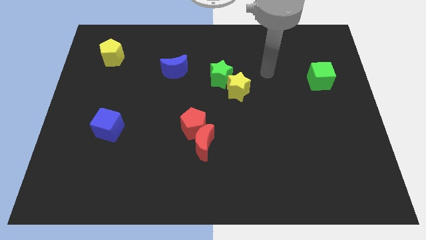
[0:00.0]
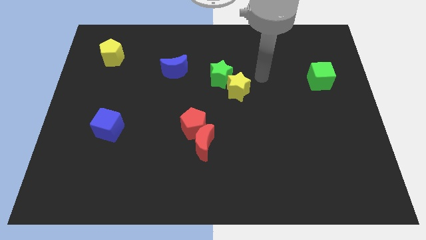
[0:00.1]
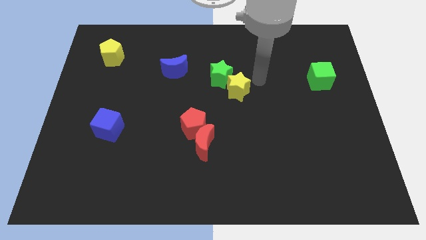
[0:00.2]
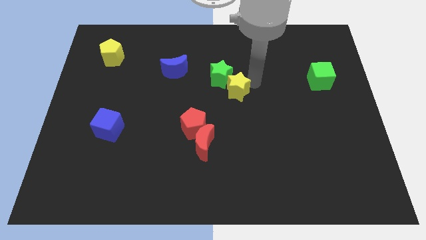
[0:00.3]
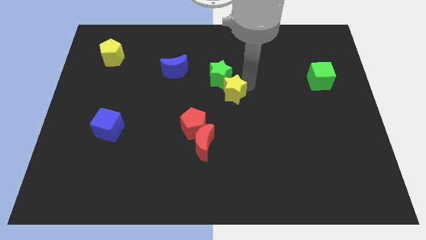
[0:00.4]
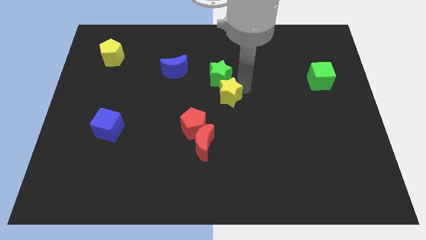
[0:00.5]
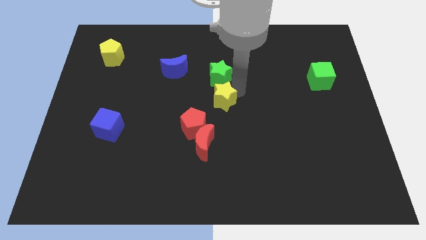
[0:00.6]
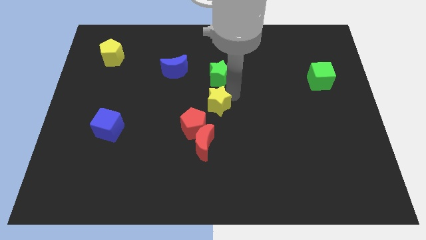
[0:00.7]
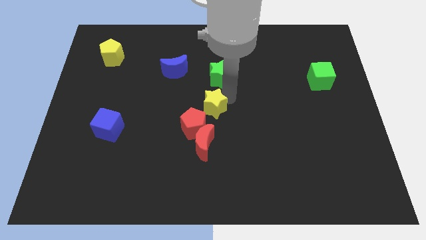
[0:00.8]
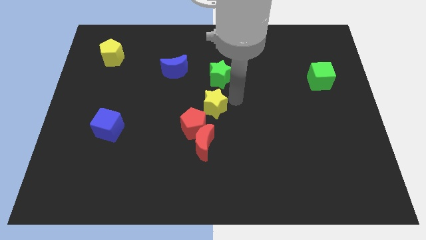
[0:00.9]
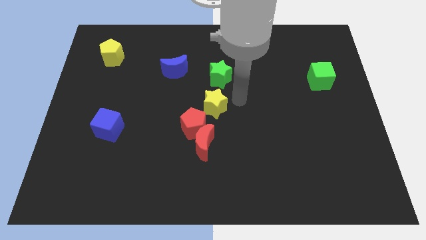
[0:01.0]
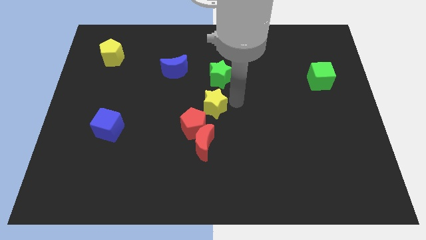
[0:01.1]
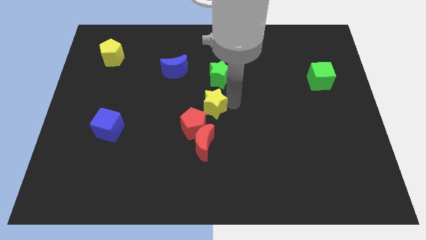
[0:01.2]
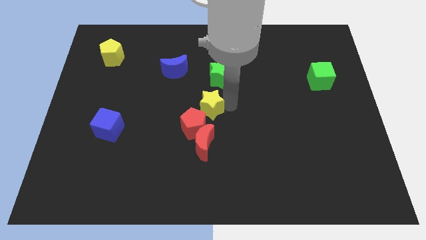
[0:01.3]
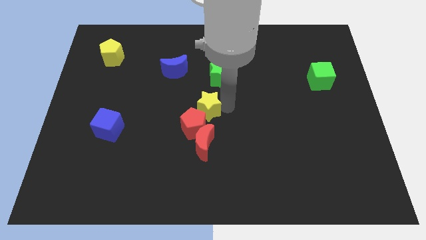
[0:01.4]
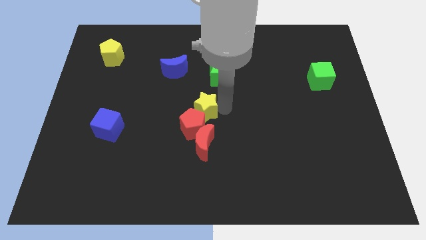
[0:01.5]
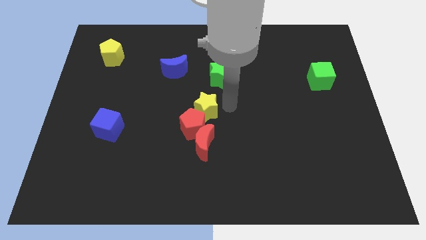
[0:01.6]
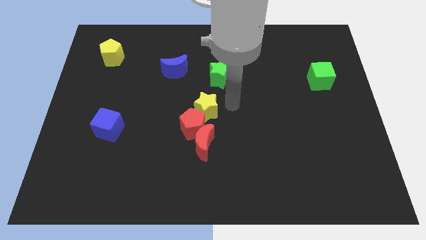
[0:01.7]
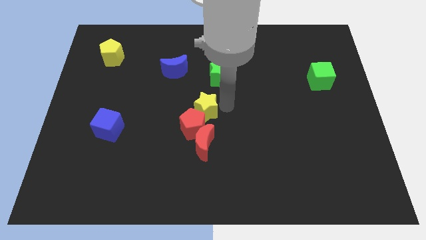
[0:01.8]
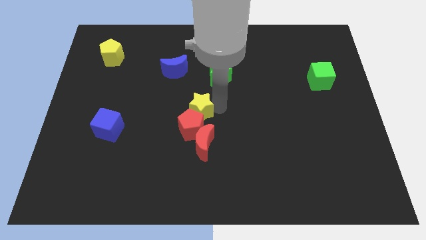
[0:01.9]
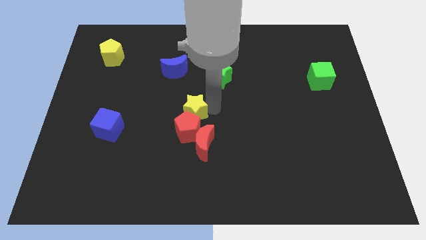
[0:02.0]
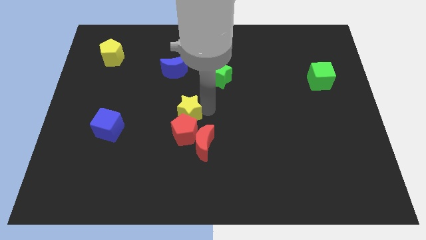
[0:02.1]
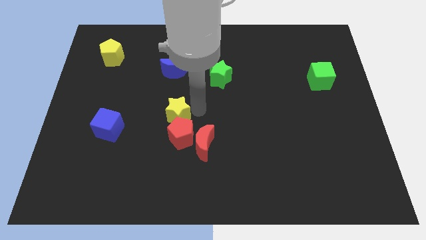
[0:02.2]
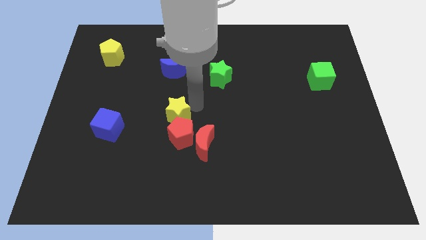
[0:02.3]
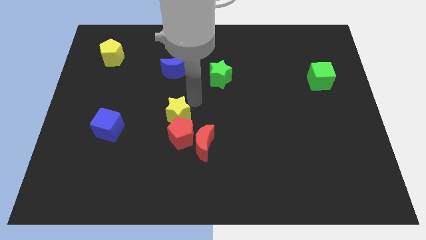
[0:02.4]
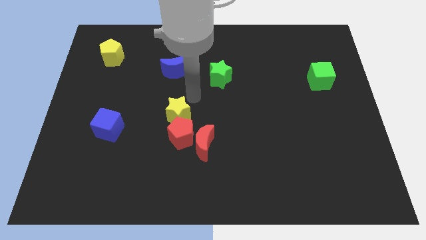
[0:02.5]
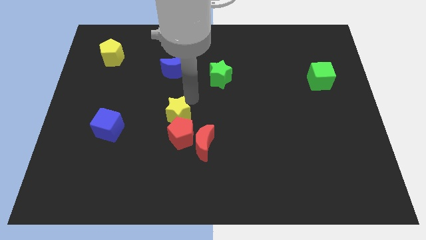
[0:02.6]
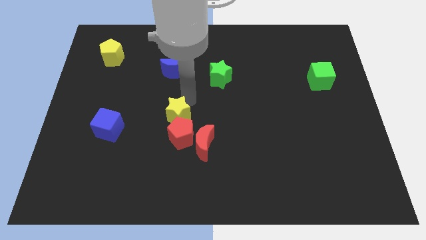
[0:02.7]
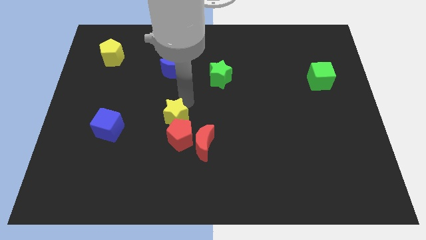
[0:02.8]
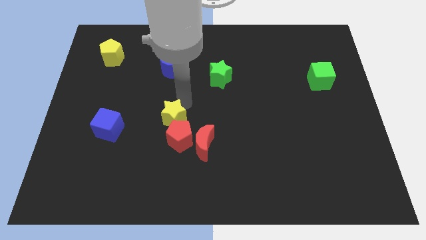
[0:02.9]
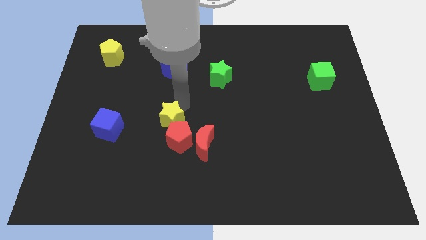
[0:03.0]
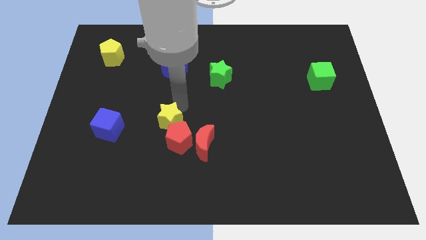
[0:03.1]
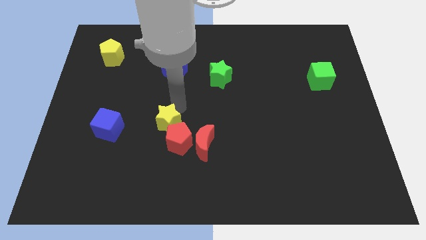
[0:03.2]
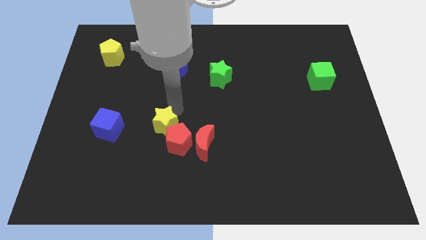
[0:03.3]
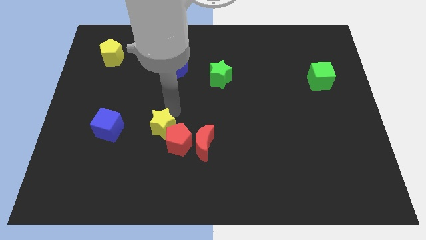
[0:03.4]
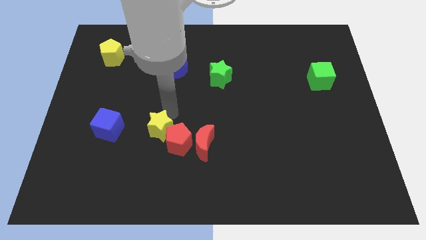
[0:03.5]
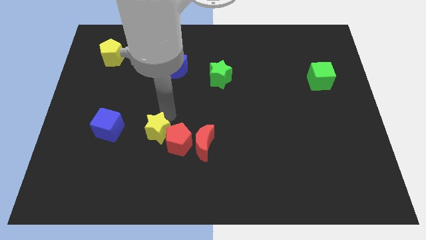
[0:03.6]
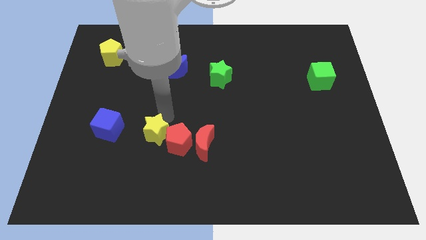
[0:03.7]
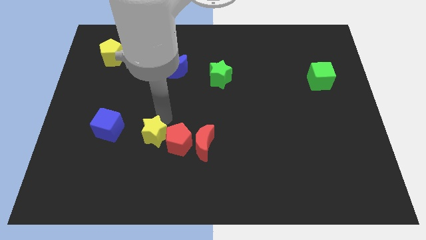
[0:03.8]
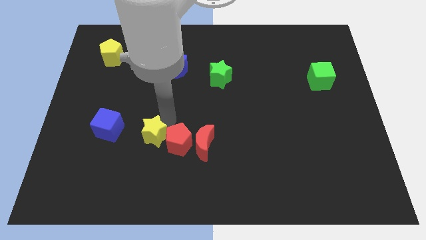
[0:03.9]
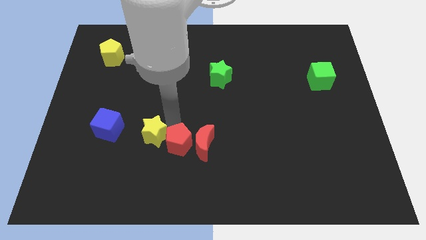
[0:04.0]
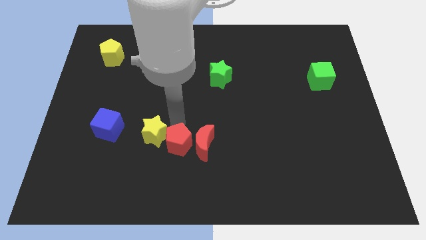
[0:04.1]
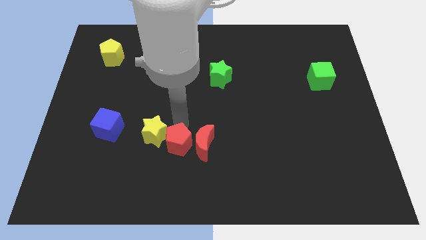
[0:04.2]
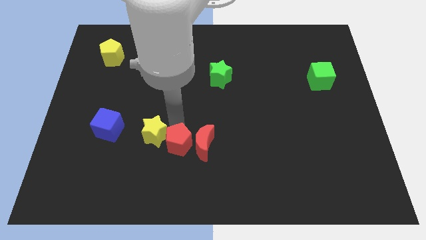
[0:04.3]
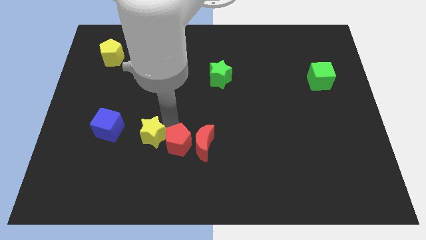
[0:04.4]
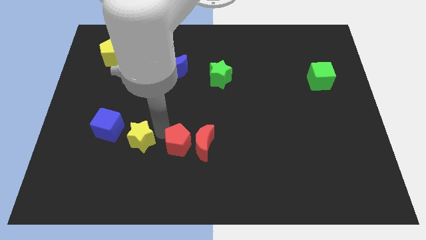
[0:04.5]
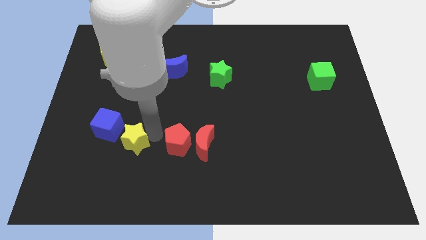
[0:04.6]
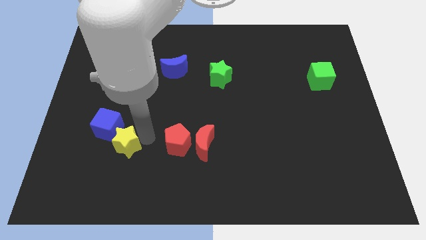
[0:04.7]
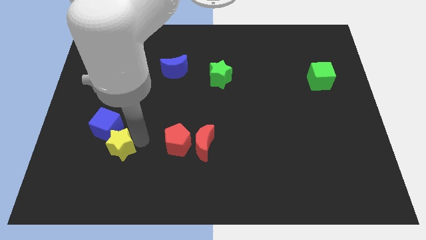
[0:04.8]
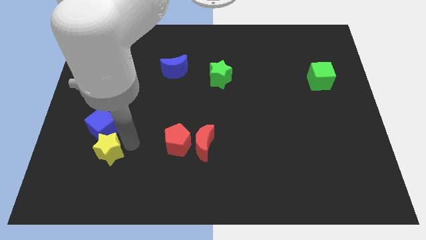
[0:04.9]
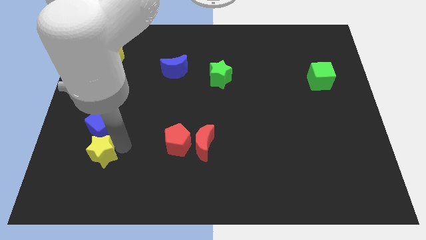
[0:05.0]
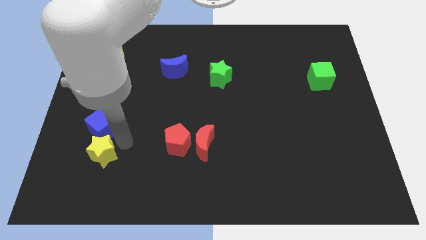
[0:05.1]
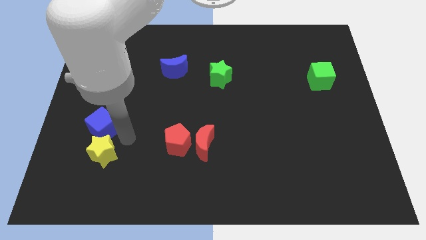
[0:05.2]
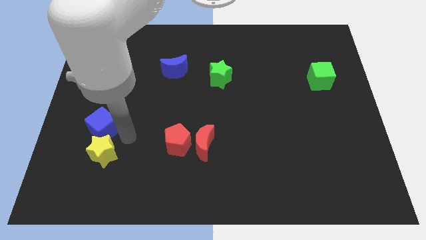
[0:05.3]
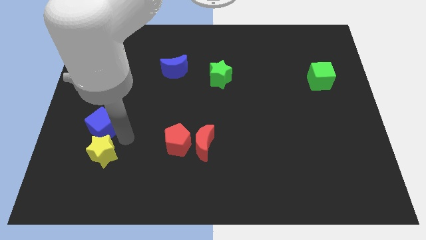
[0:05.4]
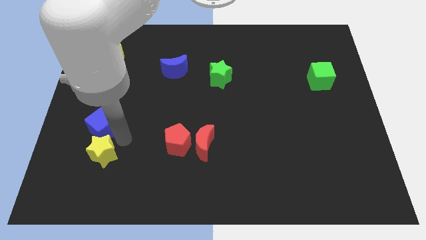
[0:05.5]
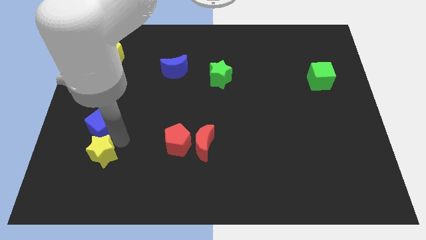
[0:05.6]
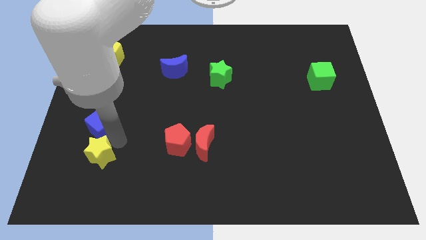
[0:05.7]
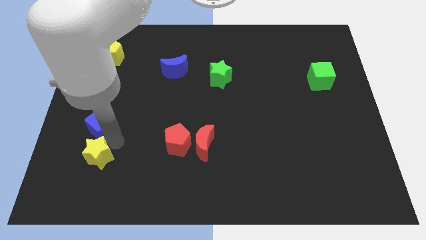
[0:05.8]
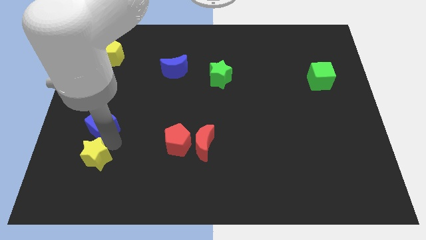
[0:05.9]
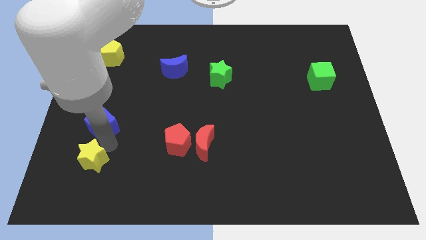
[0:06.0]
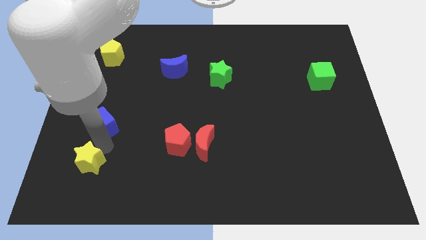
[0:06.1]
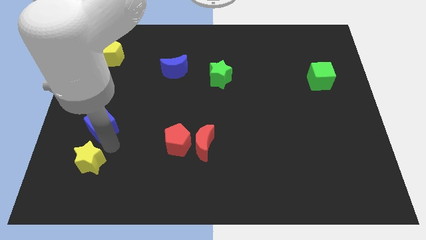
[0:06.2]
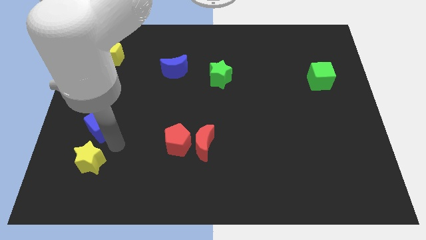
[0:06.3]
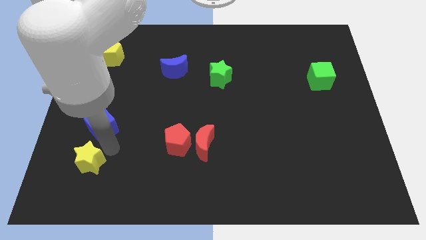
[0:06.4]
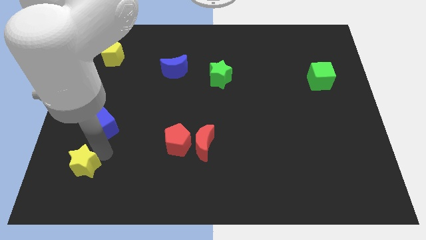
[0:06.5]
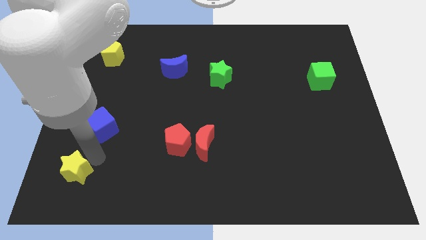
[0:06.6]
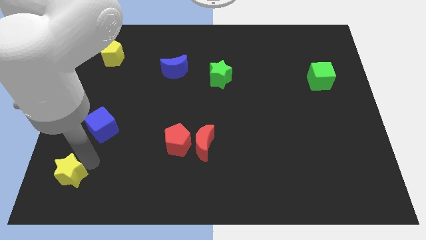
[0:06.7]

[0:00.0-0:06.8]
slide the yellow star to the bottom left corner
